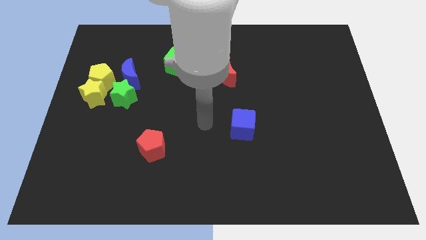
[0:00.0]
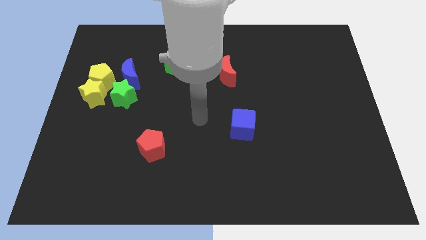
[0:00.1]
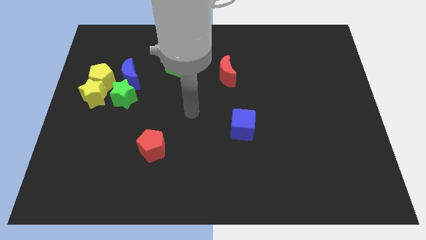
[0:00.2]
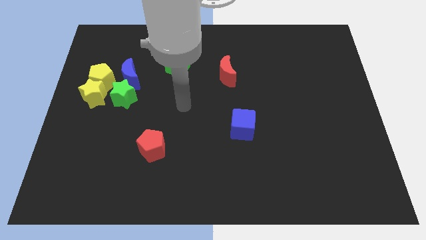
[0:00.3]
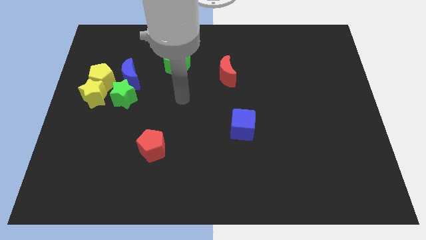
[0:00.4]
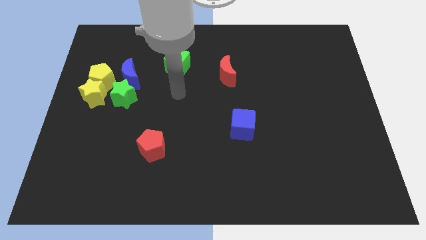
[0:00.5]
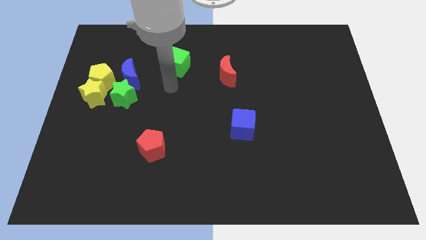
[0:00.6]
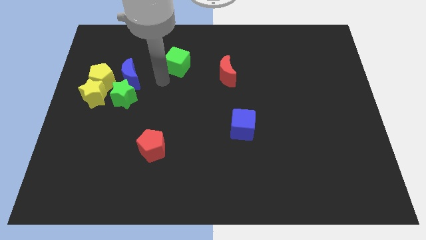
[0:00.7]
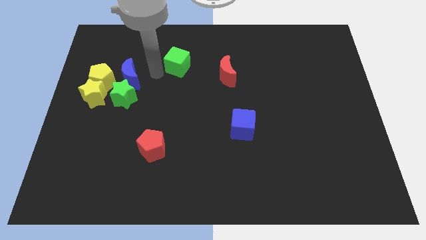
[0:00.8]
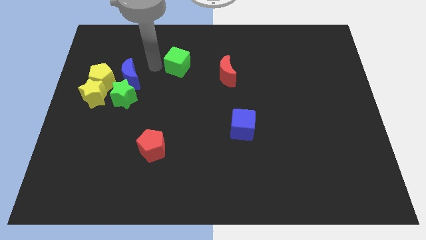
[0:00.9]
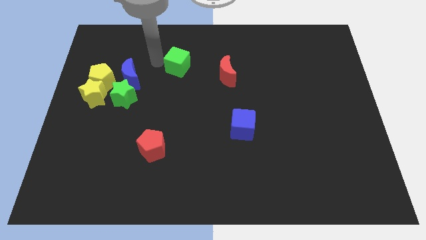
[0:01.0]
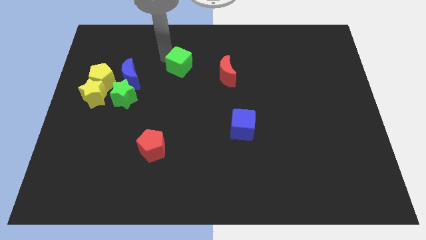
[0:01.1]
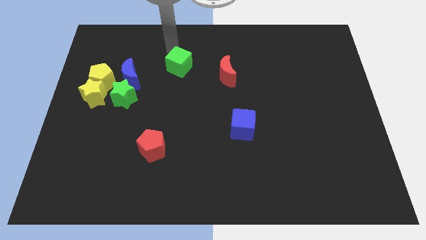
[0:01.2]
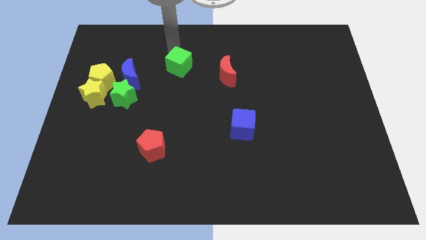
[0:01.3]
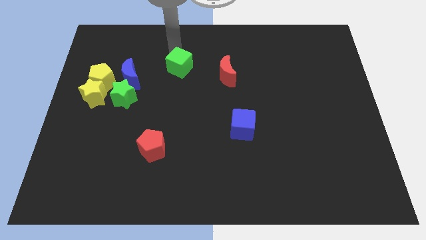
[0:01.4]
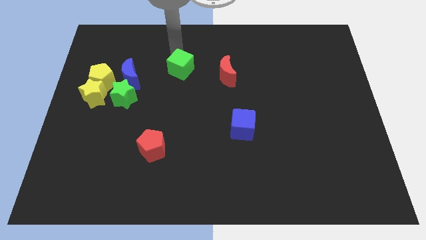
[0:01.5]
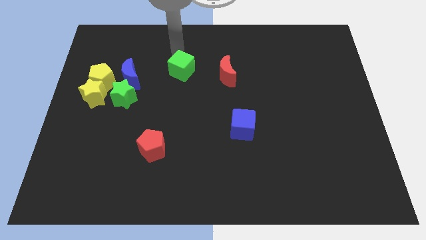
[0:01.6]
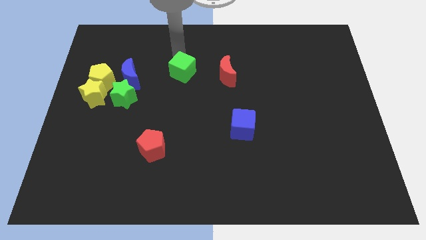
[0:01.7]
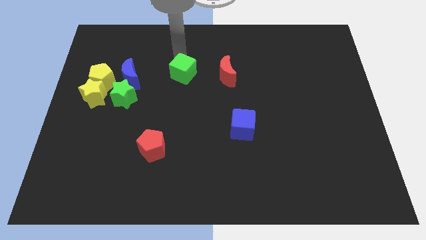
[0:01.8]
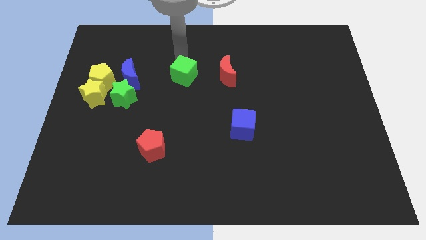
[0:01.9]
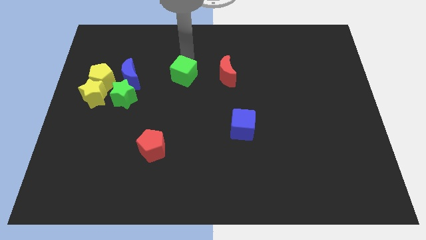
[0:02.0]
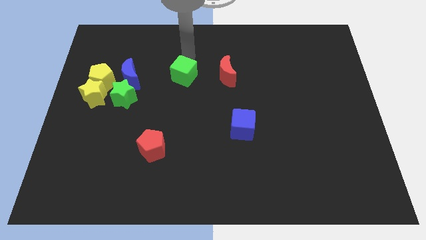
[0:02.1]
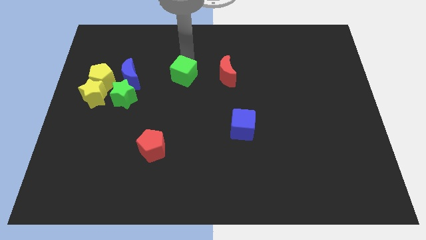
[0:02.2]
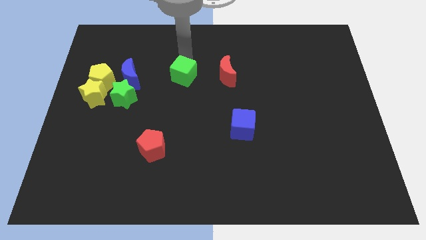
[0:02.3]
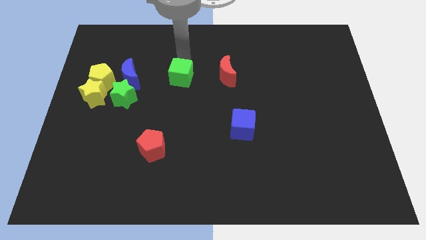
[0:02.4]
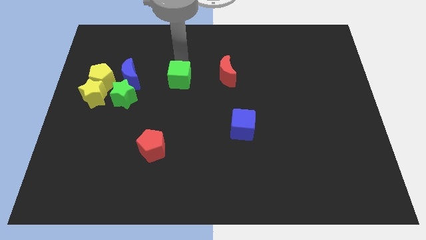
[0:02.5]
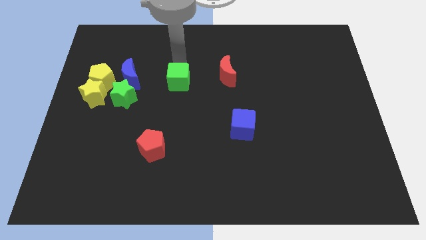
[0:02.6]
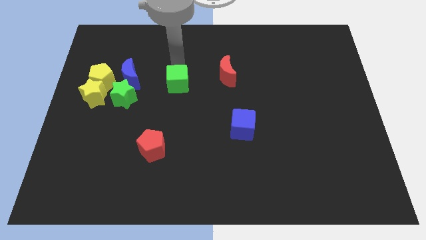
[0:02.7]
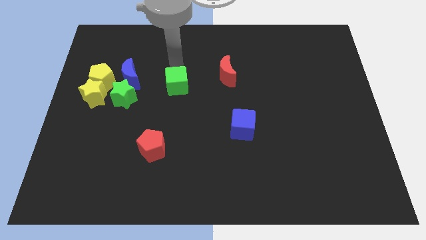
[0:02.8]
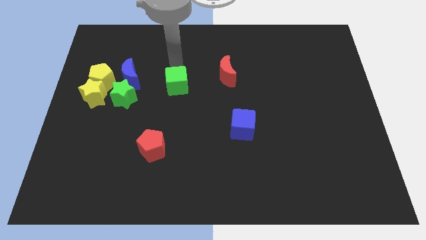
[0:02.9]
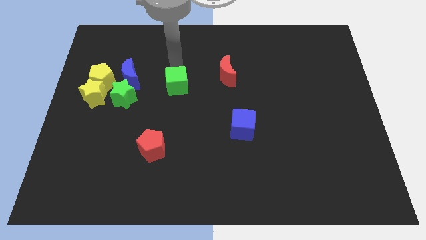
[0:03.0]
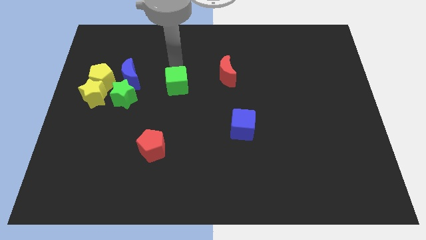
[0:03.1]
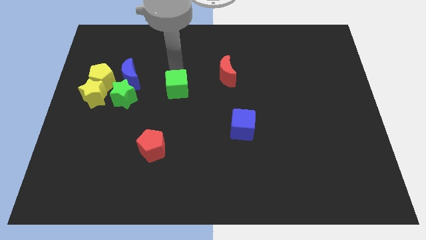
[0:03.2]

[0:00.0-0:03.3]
push the green cube down somewhat

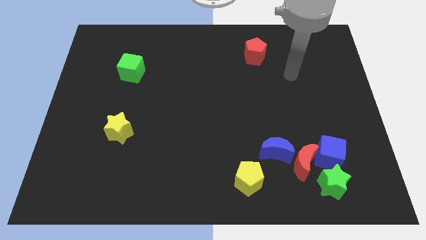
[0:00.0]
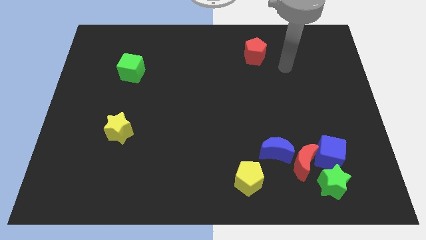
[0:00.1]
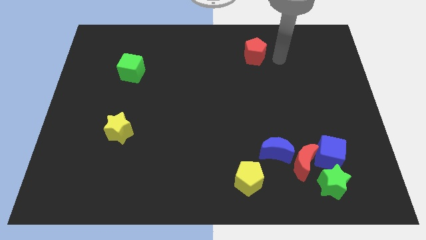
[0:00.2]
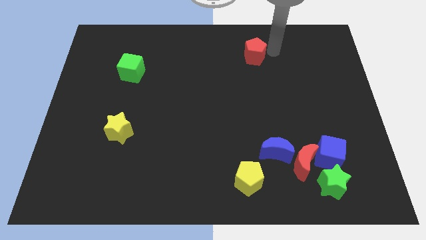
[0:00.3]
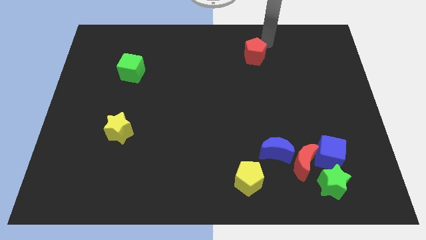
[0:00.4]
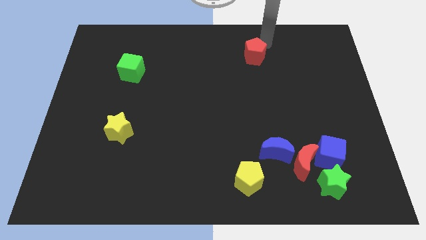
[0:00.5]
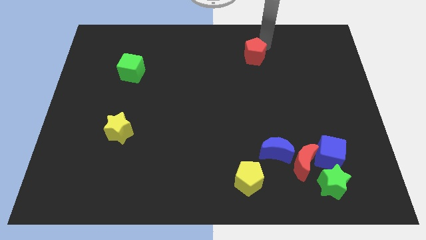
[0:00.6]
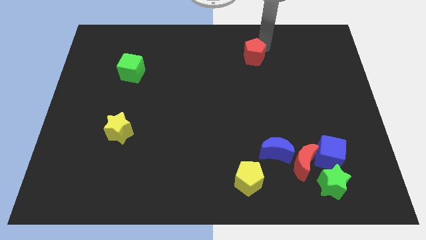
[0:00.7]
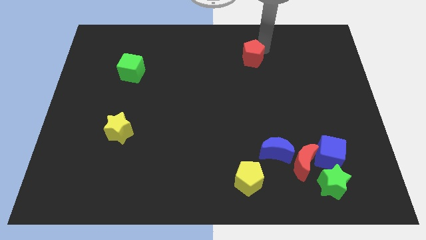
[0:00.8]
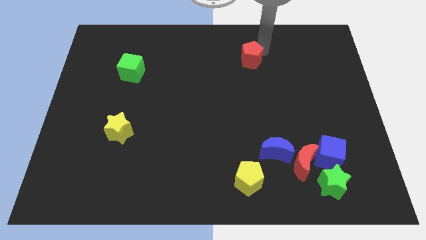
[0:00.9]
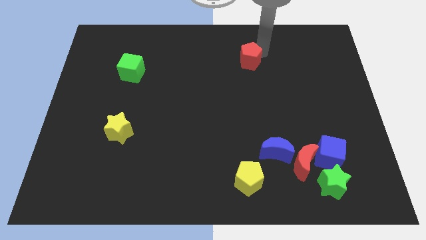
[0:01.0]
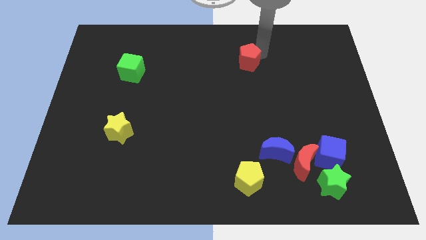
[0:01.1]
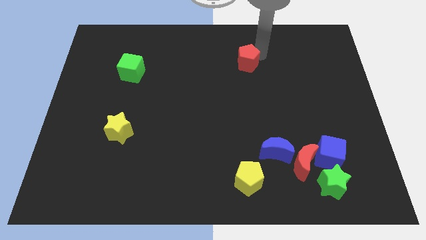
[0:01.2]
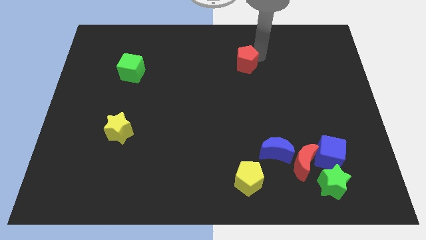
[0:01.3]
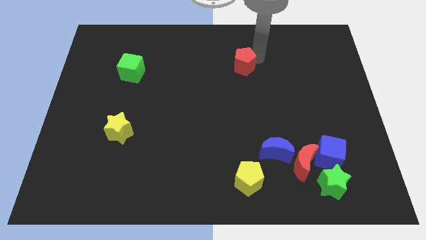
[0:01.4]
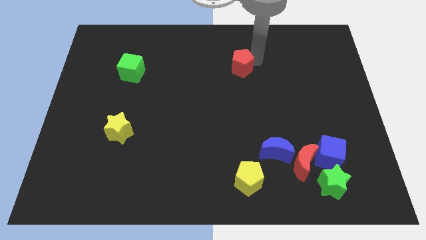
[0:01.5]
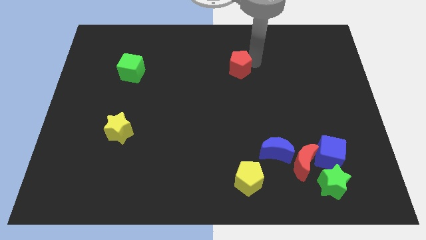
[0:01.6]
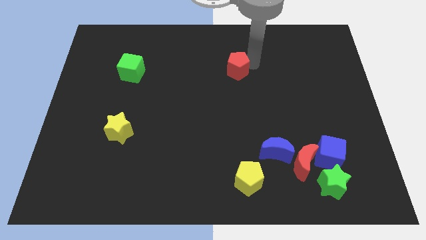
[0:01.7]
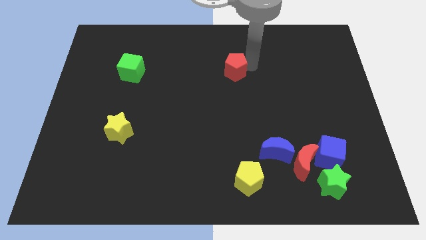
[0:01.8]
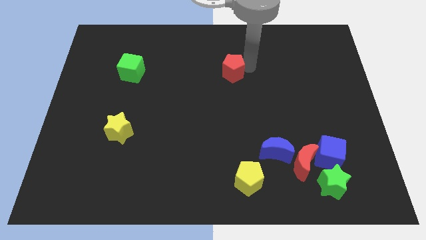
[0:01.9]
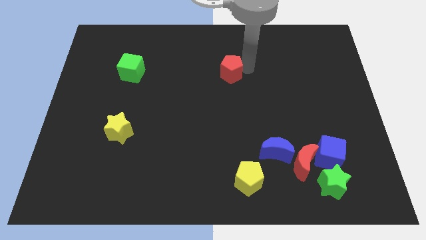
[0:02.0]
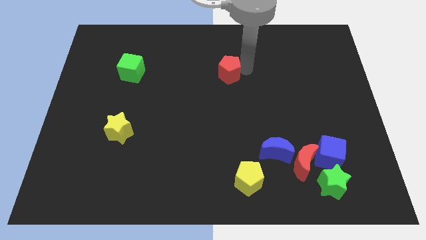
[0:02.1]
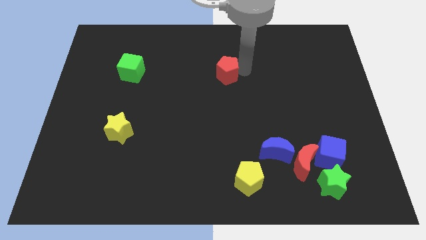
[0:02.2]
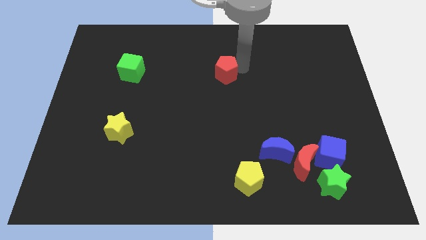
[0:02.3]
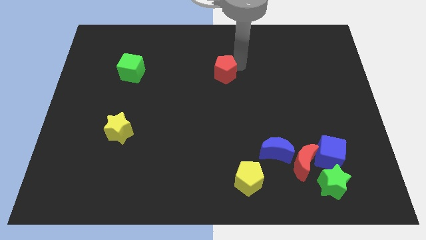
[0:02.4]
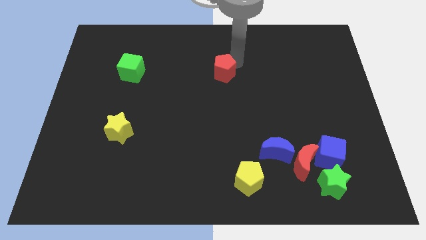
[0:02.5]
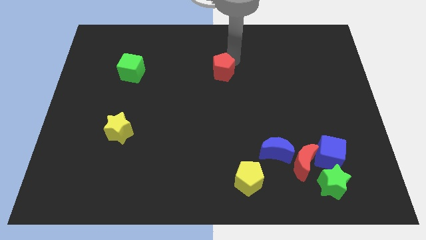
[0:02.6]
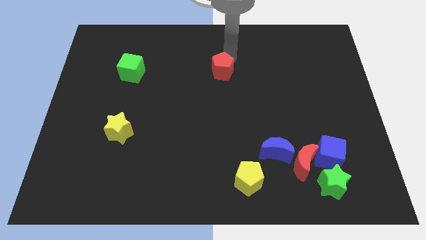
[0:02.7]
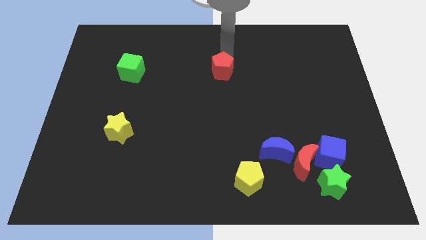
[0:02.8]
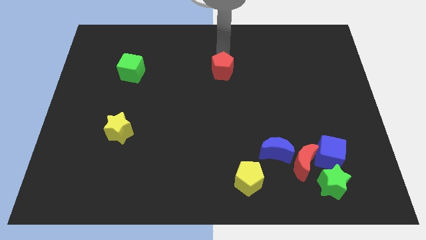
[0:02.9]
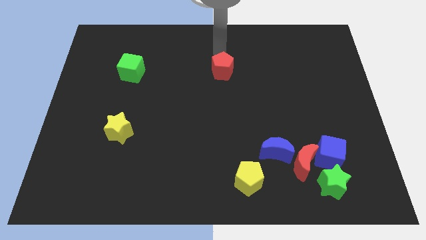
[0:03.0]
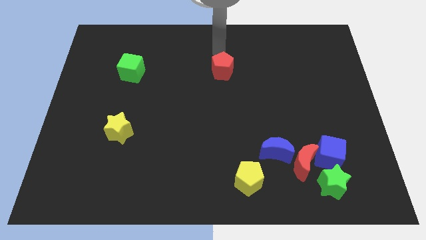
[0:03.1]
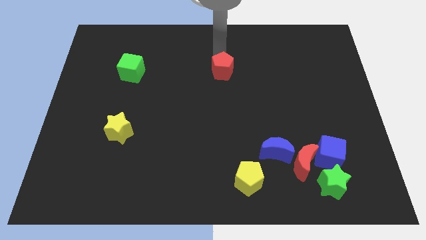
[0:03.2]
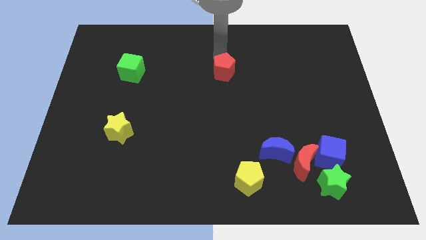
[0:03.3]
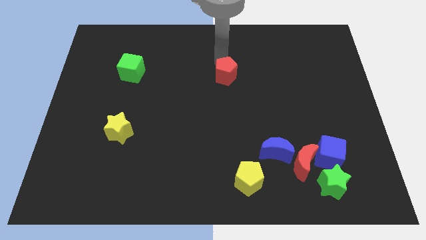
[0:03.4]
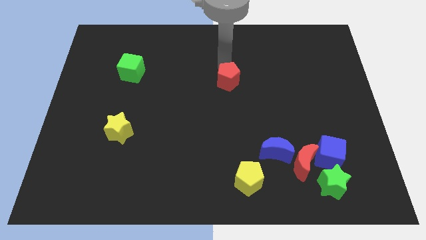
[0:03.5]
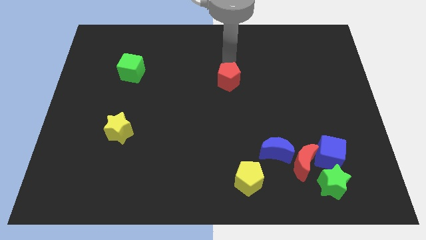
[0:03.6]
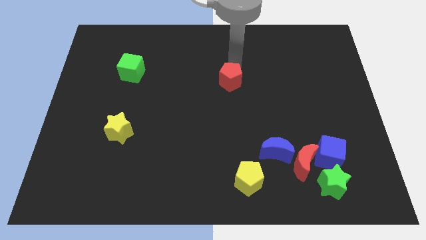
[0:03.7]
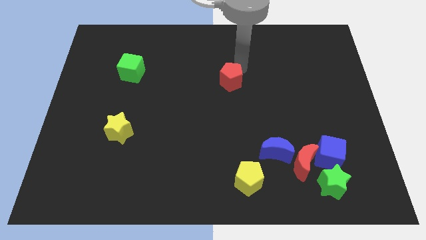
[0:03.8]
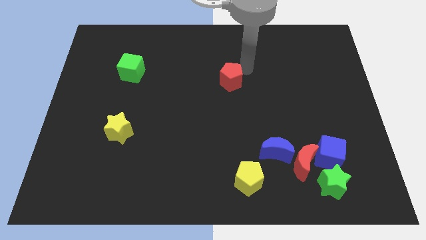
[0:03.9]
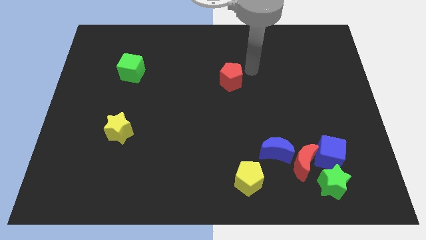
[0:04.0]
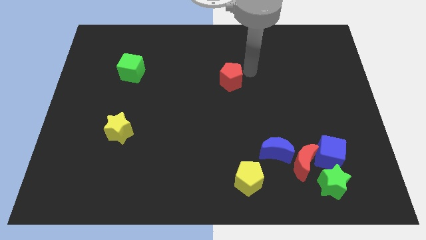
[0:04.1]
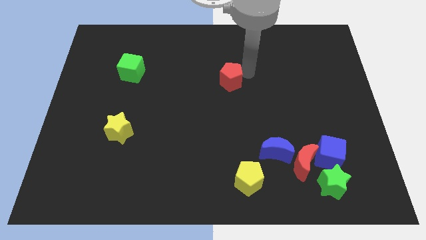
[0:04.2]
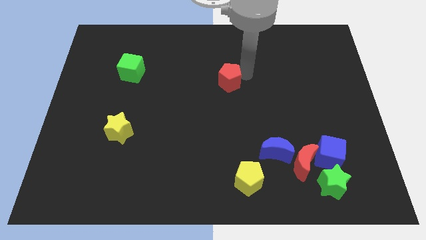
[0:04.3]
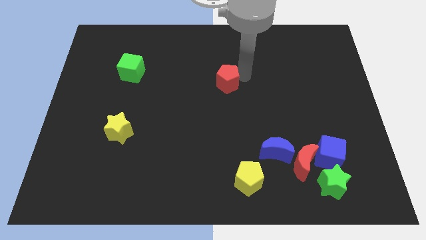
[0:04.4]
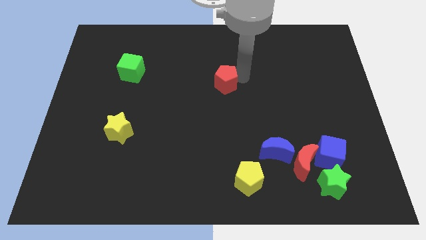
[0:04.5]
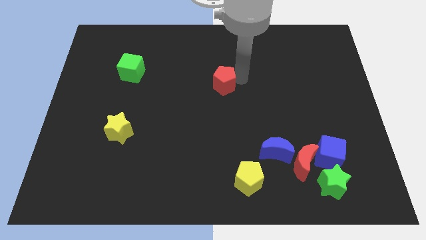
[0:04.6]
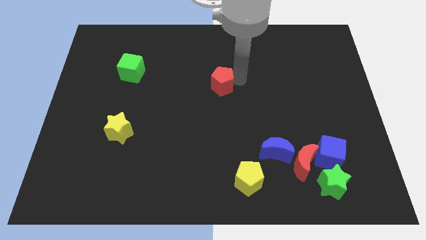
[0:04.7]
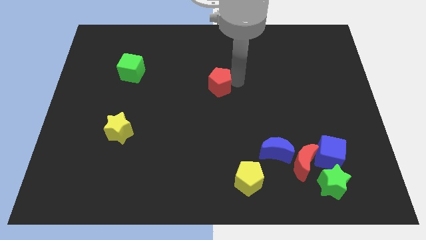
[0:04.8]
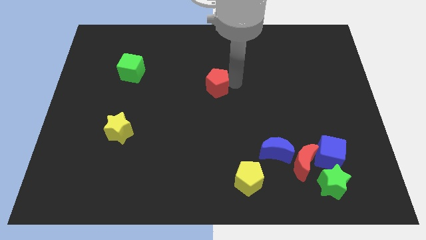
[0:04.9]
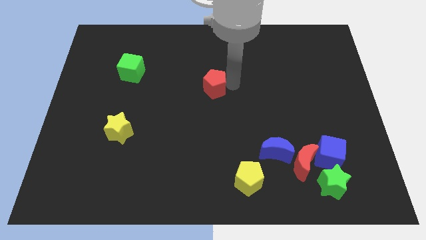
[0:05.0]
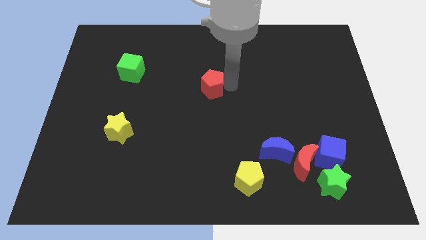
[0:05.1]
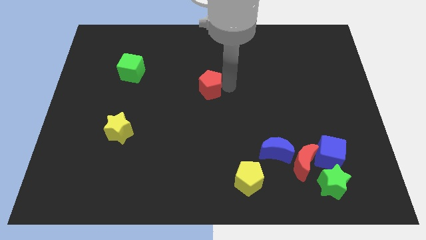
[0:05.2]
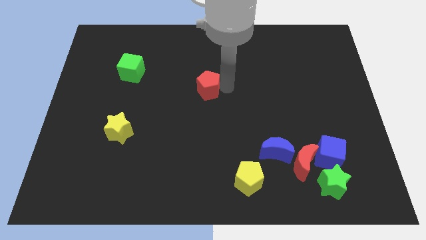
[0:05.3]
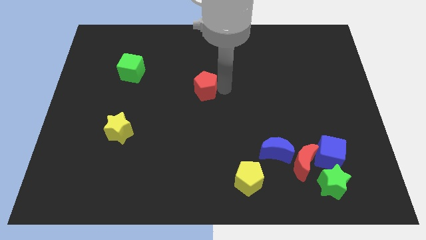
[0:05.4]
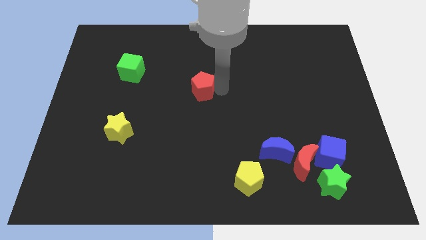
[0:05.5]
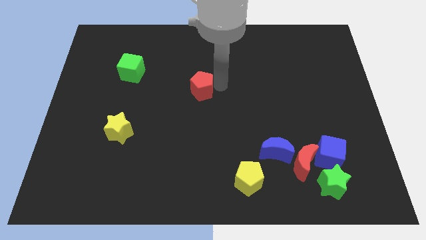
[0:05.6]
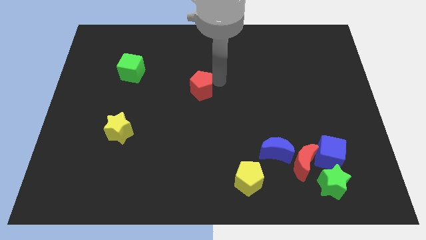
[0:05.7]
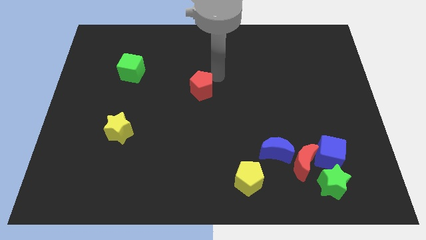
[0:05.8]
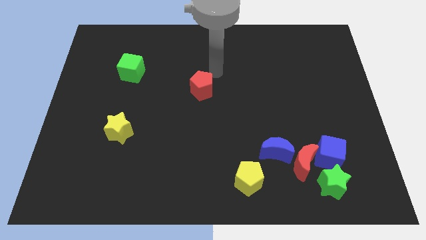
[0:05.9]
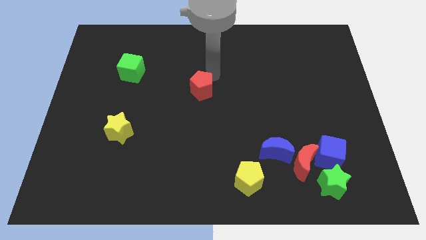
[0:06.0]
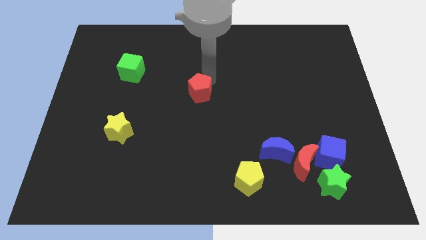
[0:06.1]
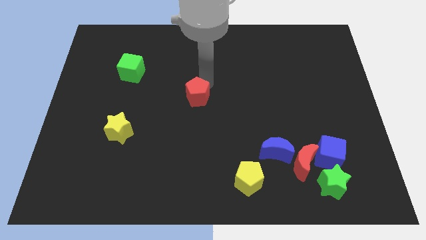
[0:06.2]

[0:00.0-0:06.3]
move the red pentagon down and to the left diagonally
